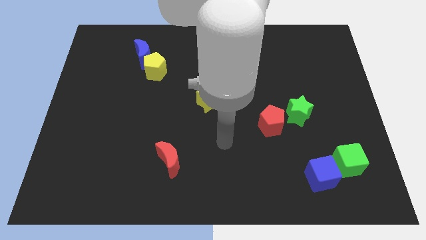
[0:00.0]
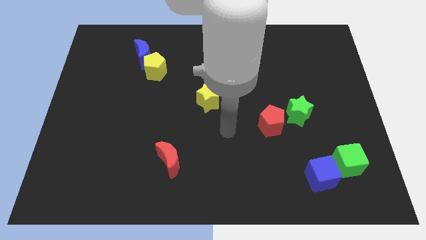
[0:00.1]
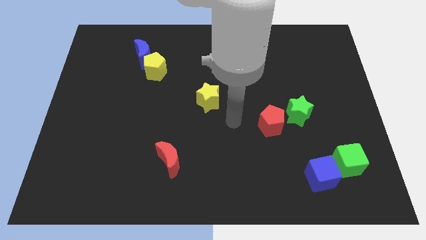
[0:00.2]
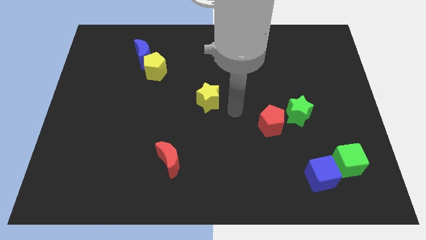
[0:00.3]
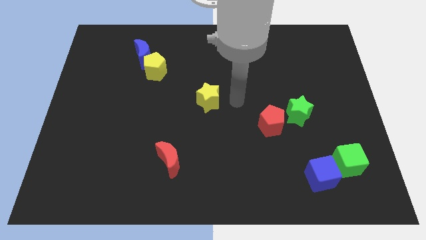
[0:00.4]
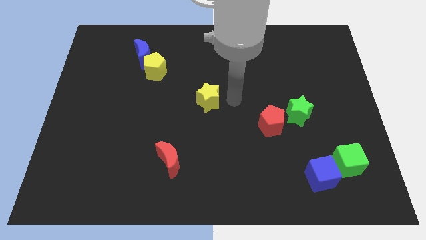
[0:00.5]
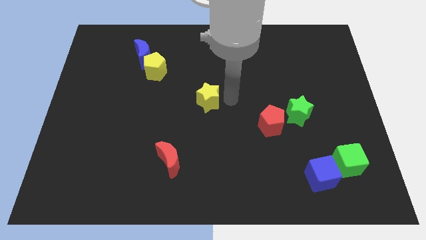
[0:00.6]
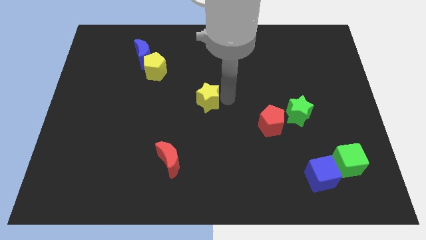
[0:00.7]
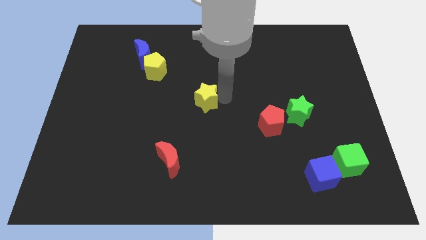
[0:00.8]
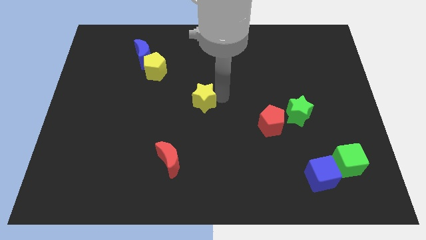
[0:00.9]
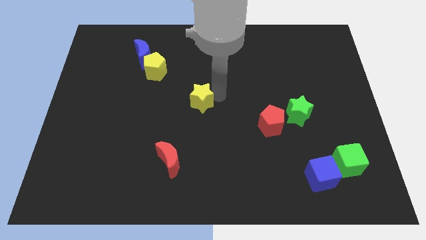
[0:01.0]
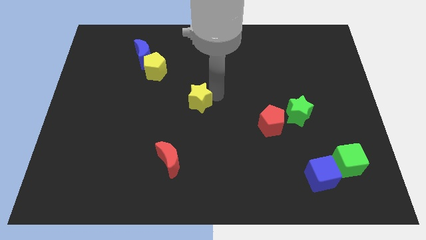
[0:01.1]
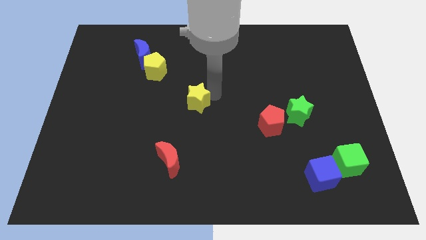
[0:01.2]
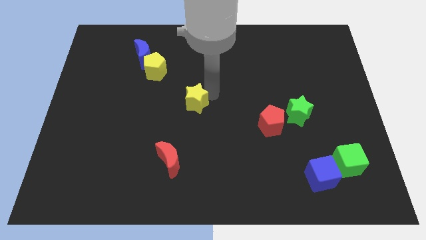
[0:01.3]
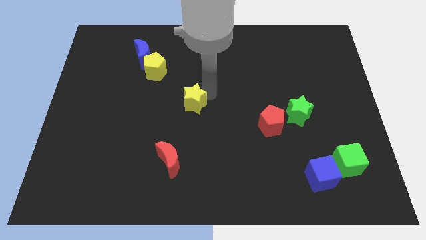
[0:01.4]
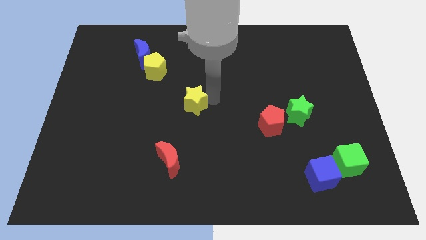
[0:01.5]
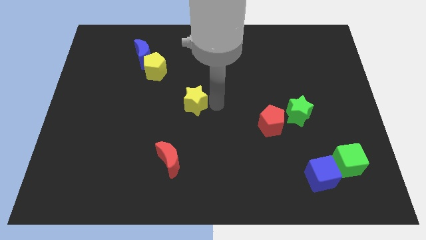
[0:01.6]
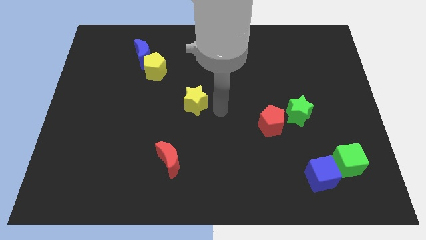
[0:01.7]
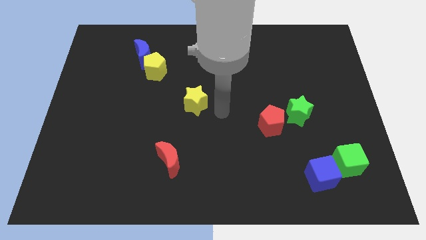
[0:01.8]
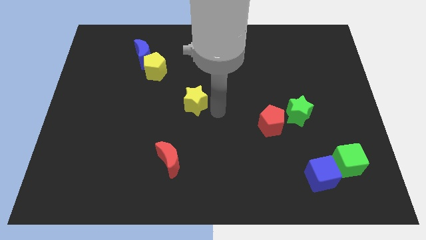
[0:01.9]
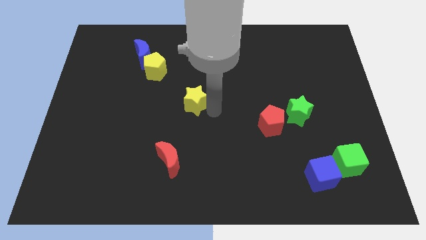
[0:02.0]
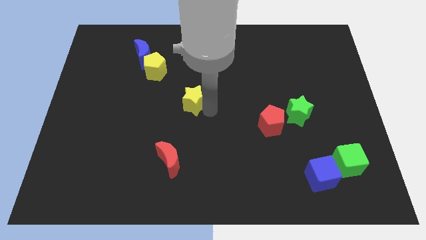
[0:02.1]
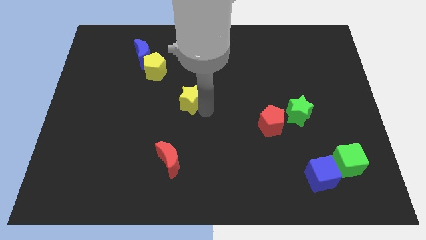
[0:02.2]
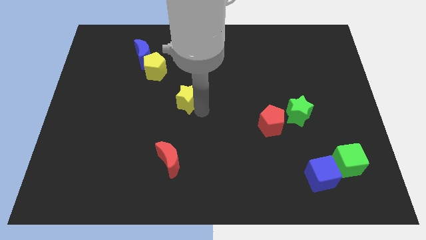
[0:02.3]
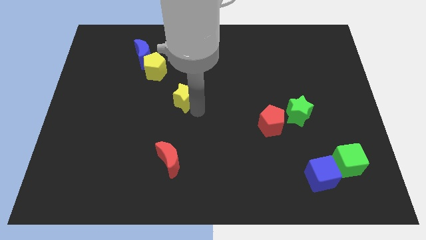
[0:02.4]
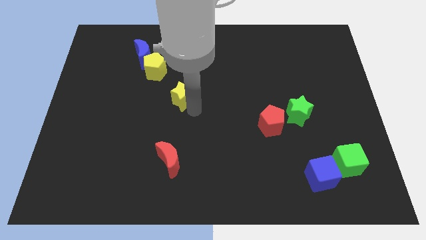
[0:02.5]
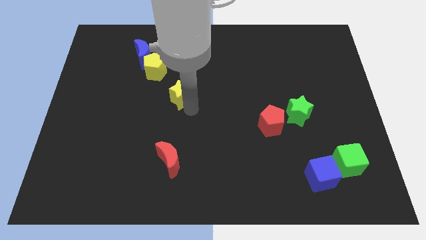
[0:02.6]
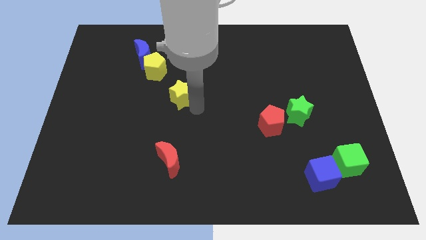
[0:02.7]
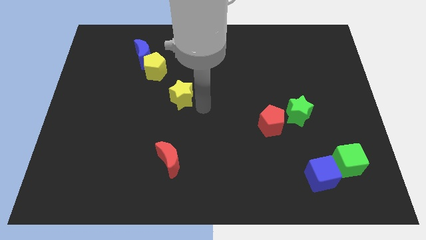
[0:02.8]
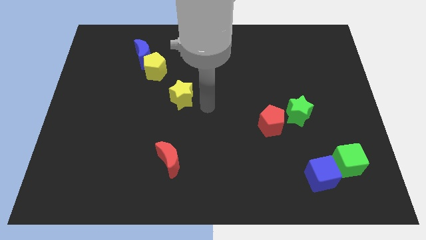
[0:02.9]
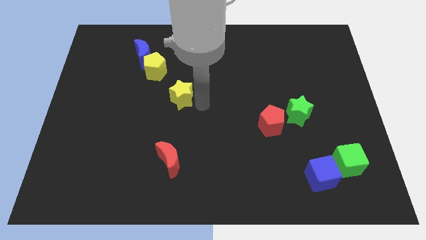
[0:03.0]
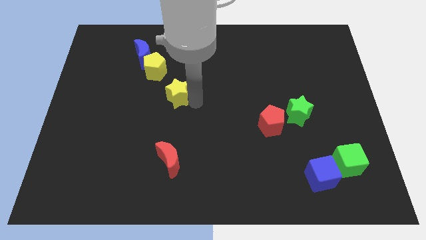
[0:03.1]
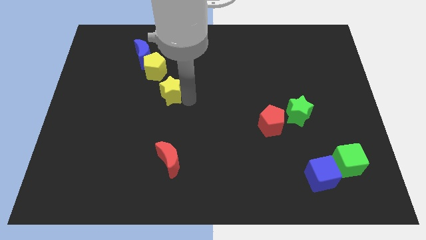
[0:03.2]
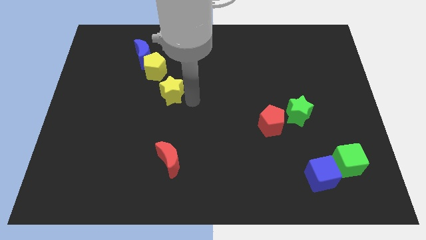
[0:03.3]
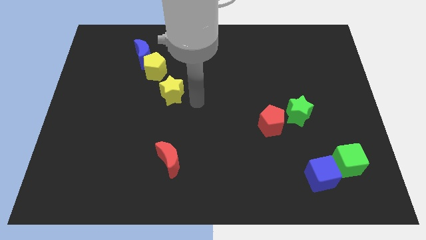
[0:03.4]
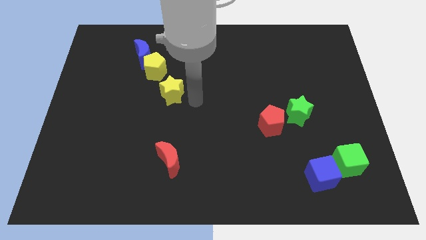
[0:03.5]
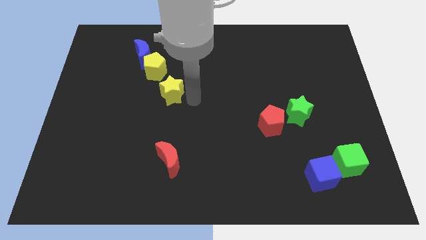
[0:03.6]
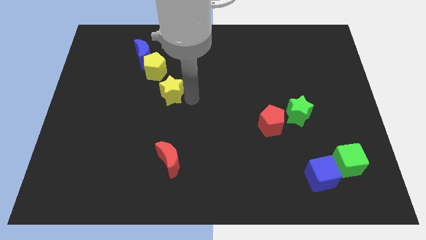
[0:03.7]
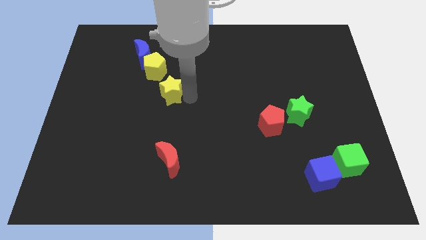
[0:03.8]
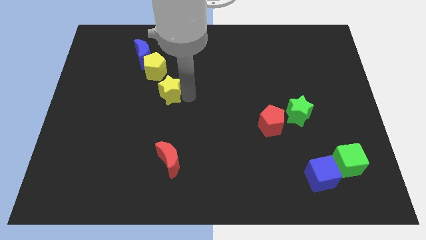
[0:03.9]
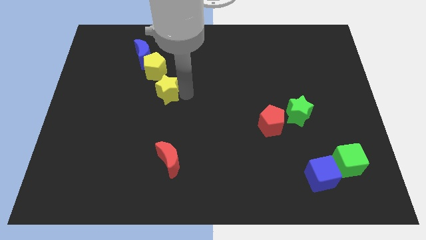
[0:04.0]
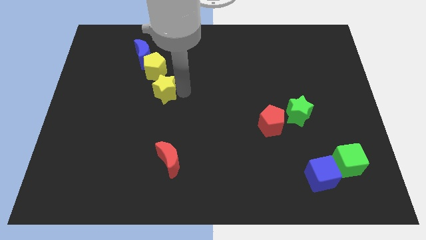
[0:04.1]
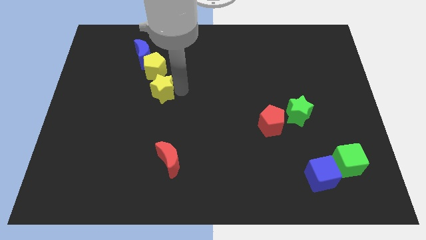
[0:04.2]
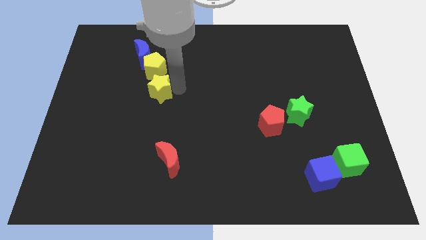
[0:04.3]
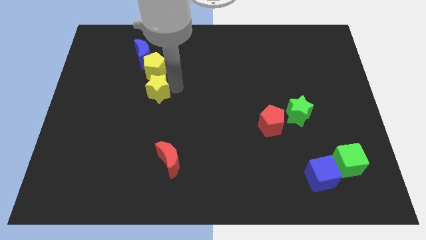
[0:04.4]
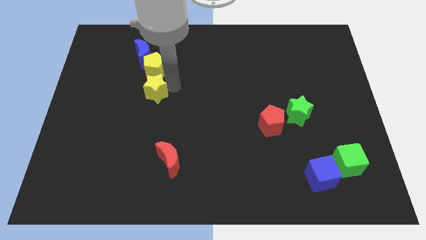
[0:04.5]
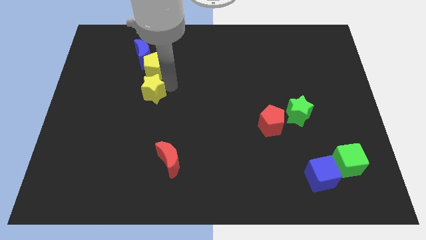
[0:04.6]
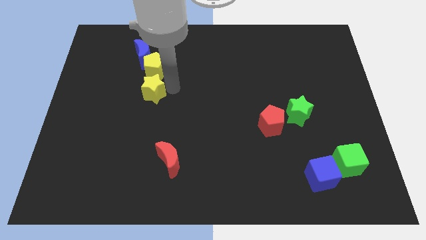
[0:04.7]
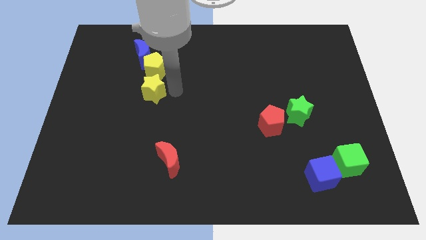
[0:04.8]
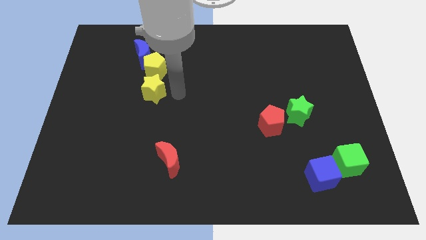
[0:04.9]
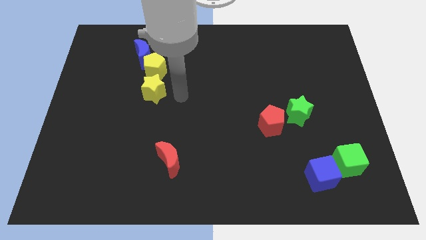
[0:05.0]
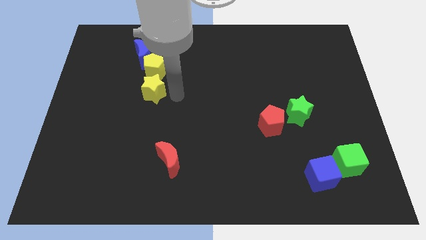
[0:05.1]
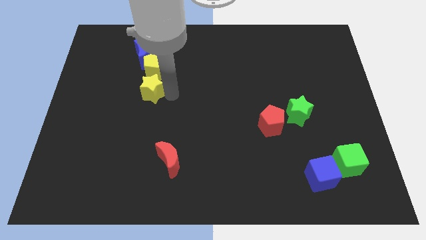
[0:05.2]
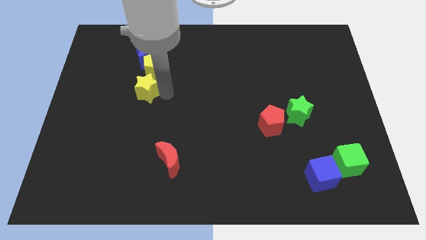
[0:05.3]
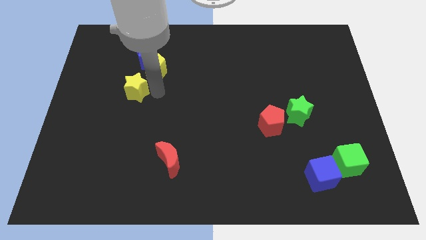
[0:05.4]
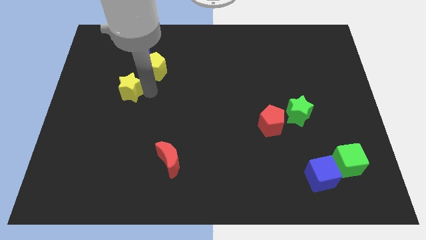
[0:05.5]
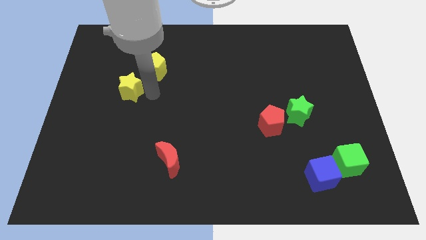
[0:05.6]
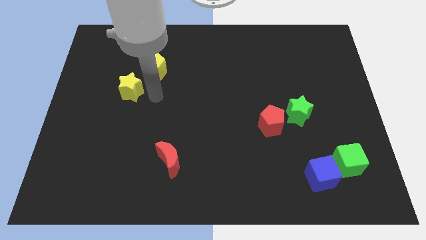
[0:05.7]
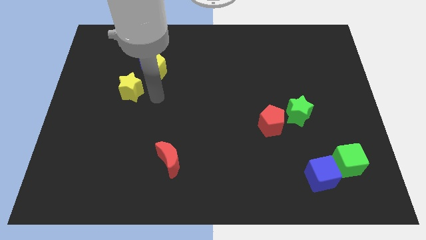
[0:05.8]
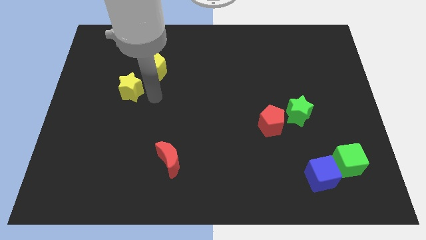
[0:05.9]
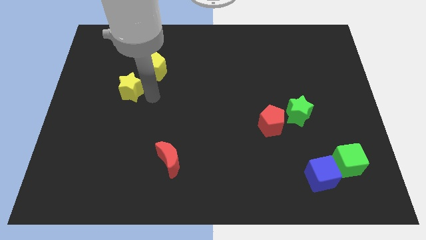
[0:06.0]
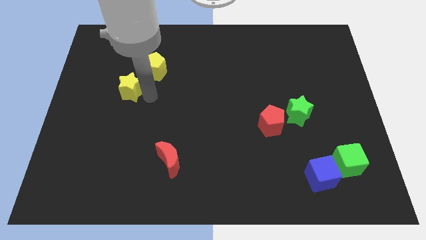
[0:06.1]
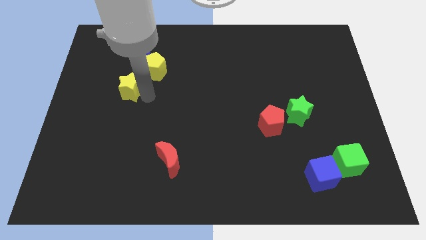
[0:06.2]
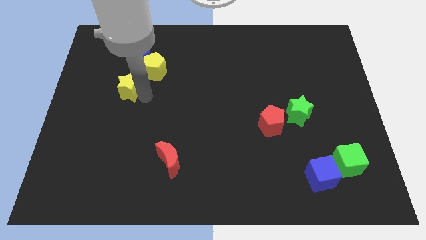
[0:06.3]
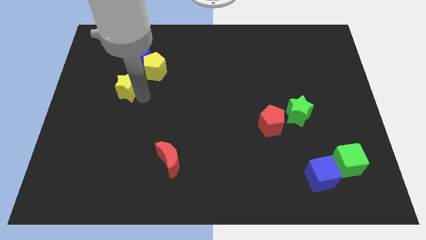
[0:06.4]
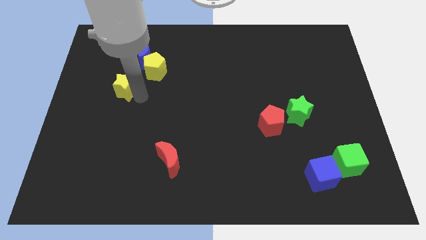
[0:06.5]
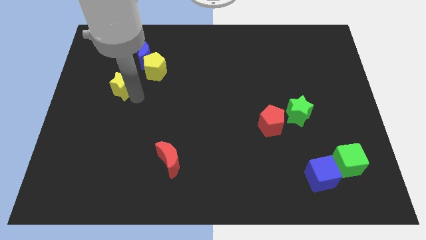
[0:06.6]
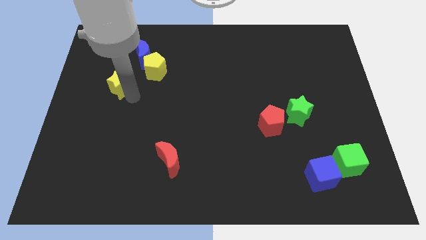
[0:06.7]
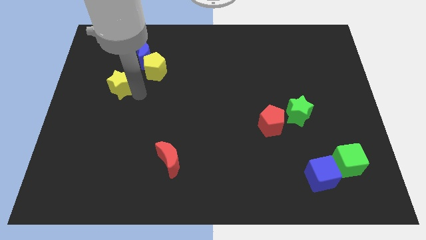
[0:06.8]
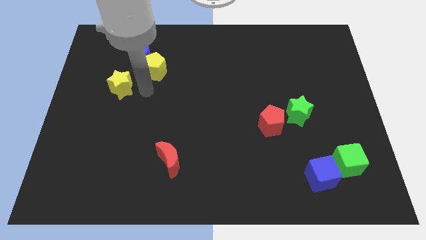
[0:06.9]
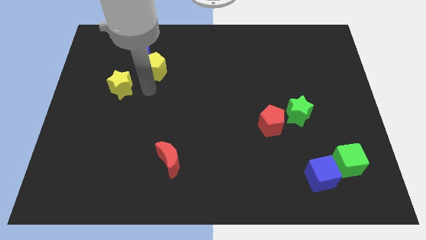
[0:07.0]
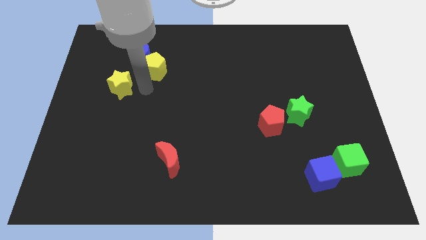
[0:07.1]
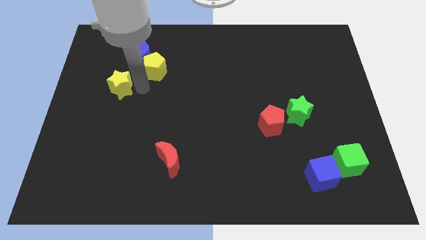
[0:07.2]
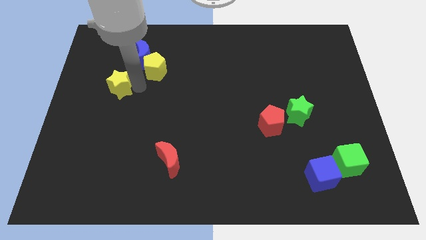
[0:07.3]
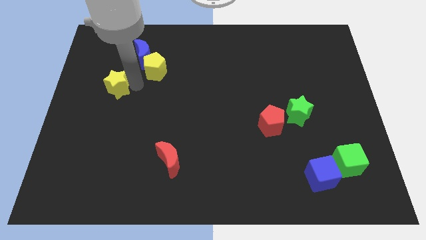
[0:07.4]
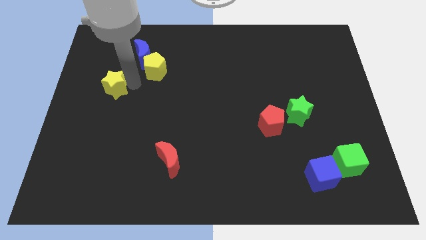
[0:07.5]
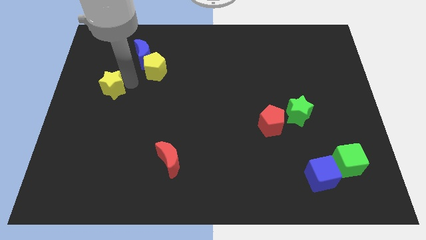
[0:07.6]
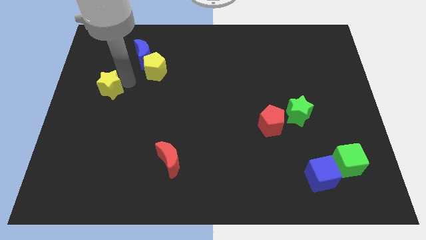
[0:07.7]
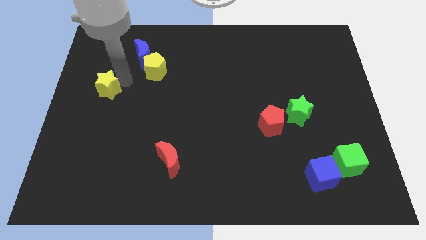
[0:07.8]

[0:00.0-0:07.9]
move the yellow star to the left side of the board
